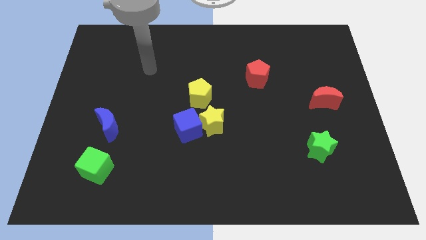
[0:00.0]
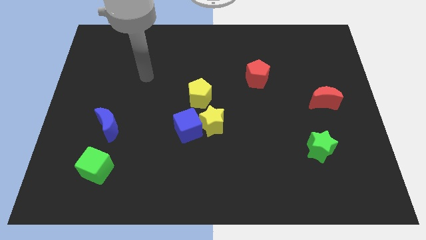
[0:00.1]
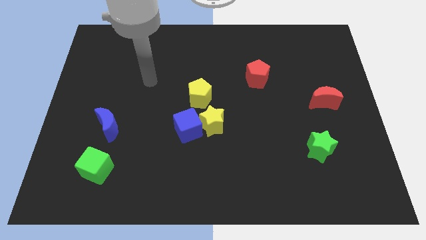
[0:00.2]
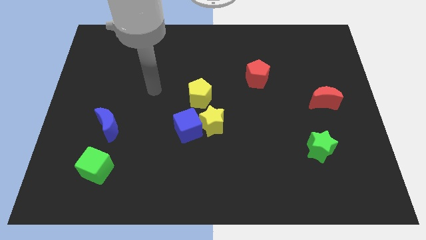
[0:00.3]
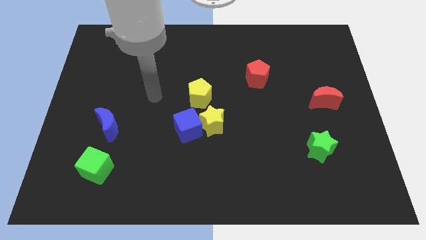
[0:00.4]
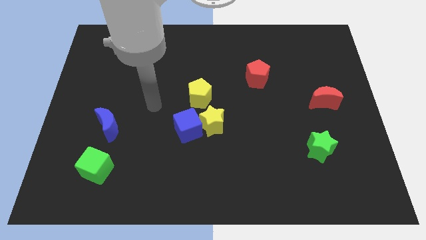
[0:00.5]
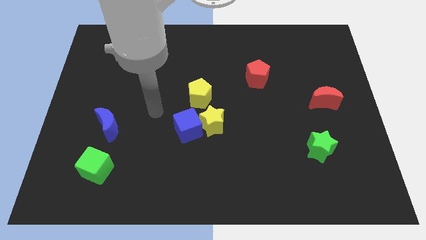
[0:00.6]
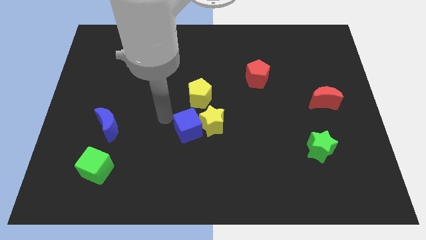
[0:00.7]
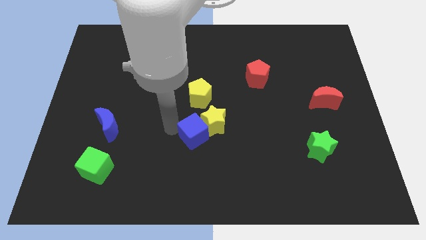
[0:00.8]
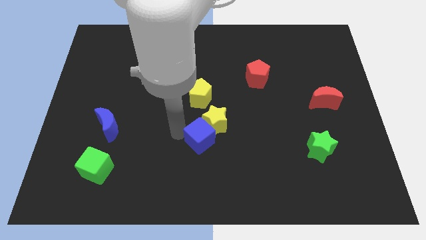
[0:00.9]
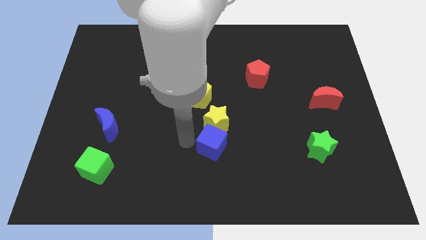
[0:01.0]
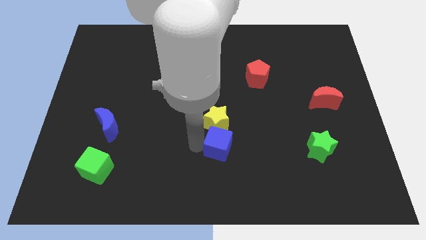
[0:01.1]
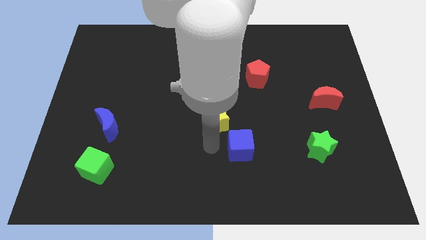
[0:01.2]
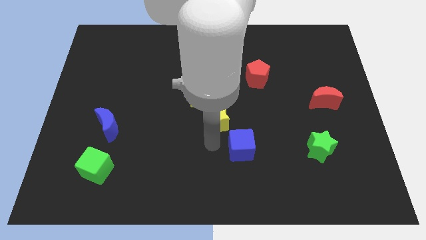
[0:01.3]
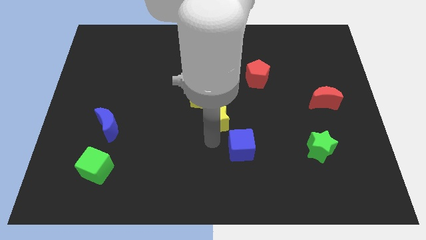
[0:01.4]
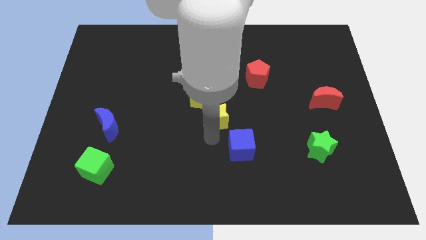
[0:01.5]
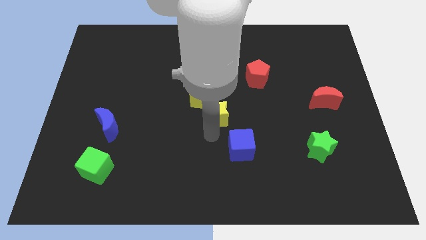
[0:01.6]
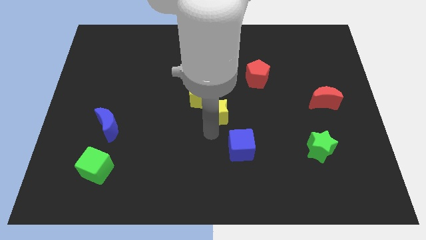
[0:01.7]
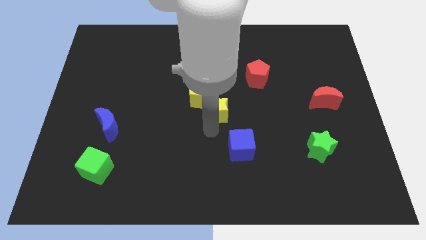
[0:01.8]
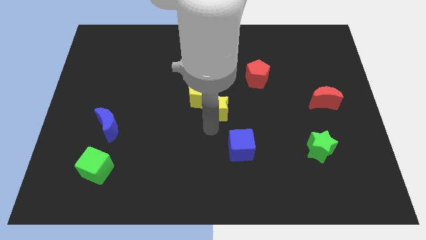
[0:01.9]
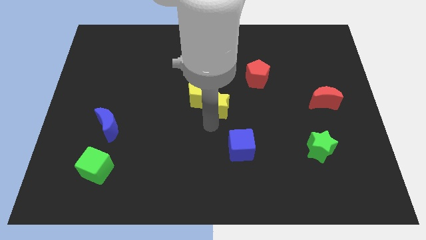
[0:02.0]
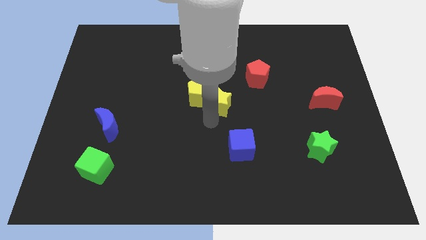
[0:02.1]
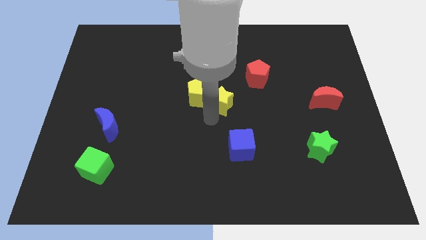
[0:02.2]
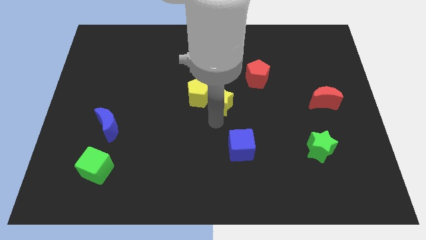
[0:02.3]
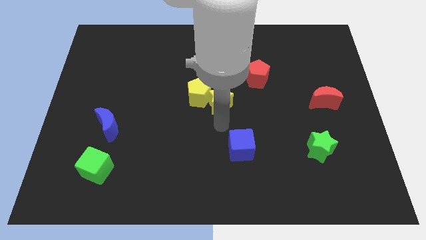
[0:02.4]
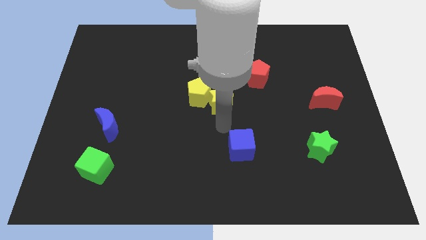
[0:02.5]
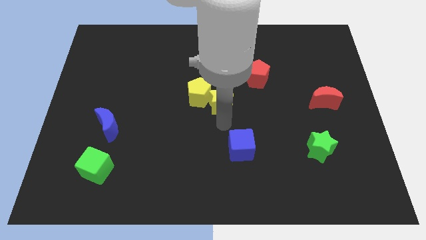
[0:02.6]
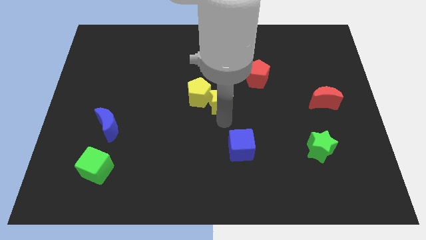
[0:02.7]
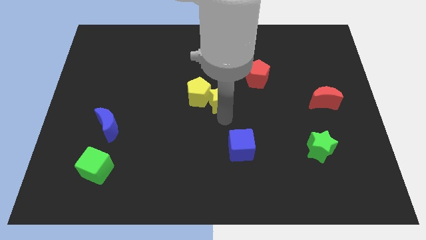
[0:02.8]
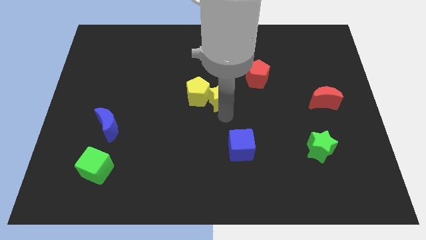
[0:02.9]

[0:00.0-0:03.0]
slightly slide the yellow star up

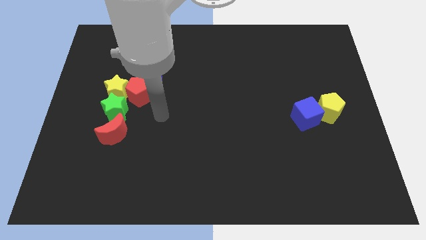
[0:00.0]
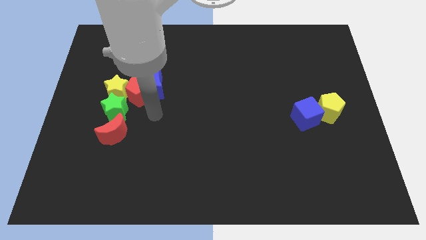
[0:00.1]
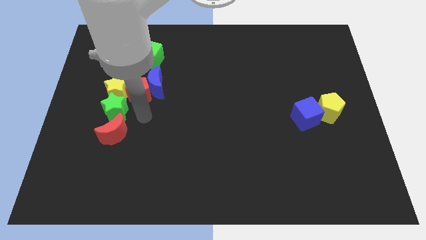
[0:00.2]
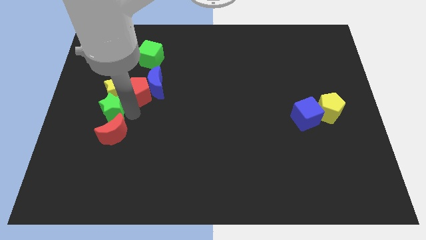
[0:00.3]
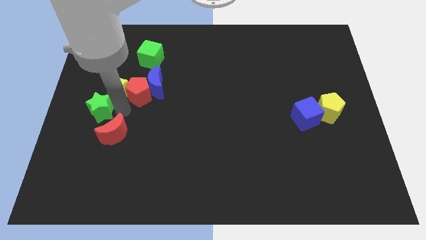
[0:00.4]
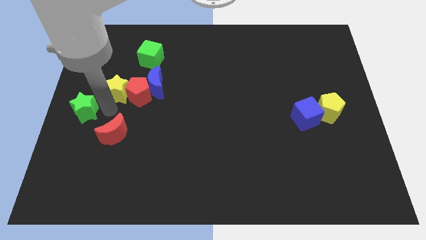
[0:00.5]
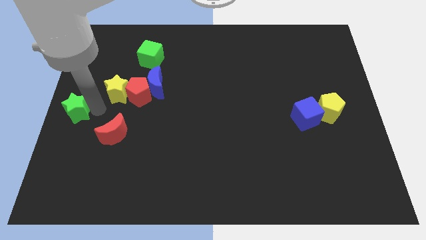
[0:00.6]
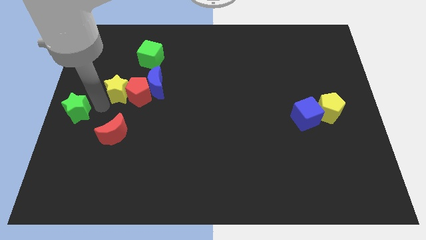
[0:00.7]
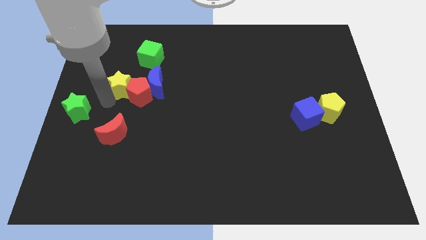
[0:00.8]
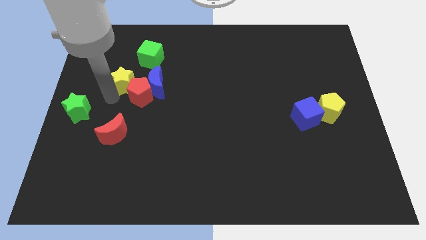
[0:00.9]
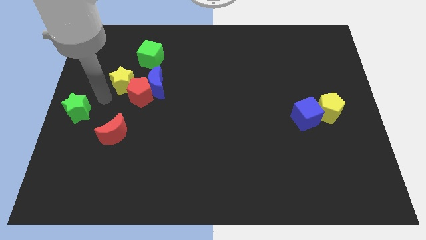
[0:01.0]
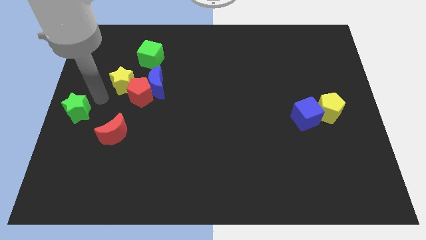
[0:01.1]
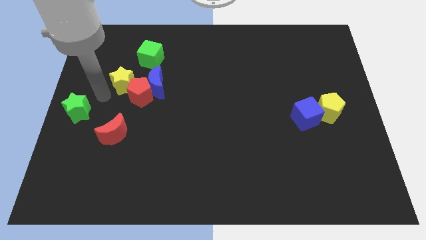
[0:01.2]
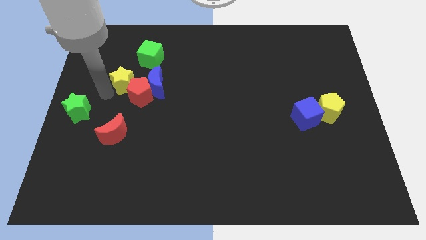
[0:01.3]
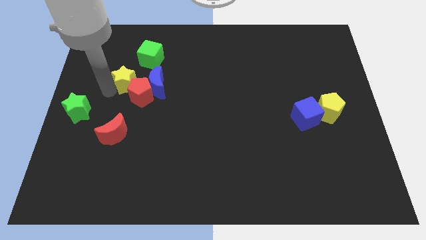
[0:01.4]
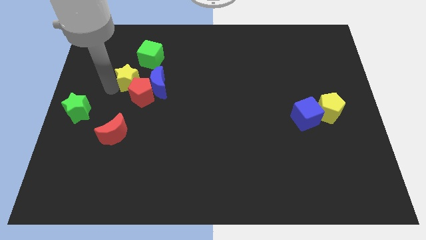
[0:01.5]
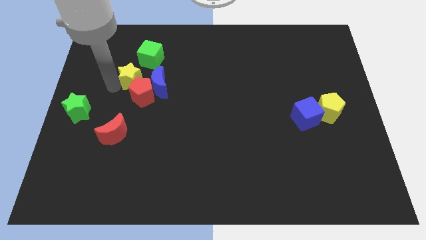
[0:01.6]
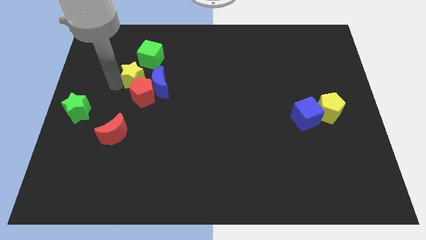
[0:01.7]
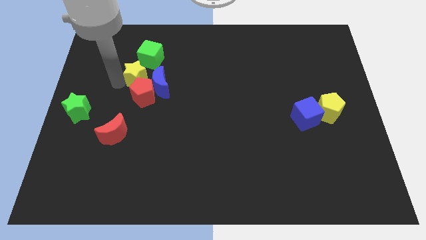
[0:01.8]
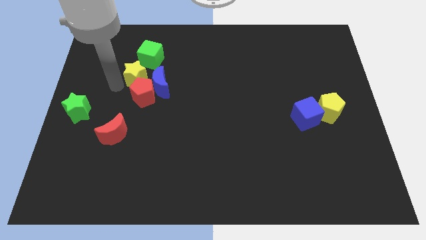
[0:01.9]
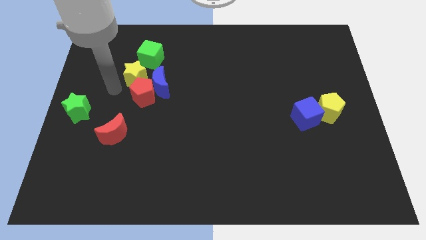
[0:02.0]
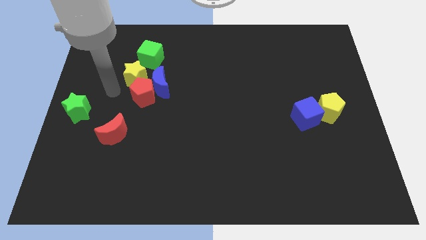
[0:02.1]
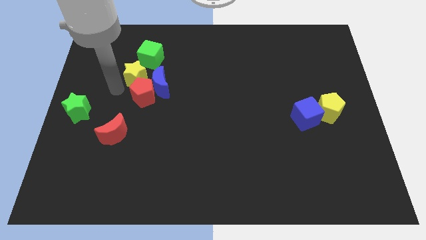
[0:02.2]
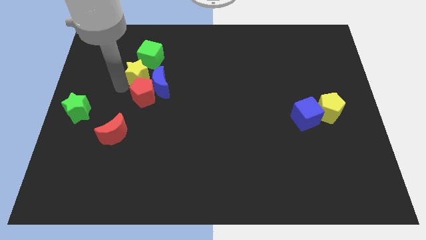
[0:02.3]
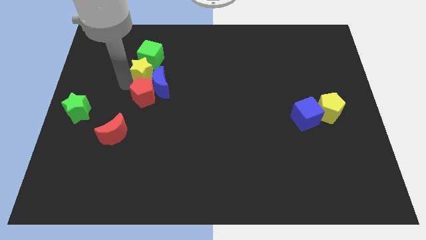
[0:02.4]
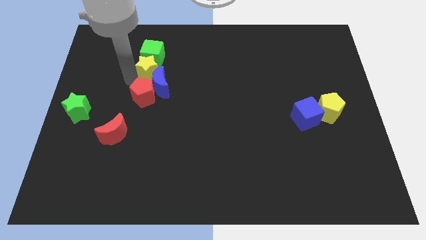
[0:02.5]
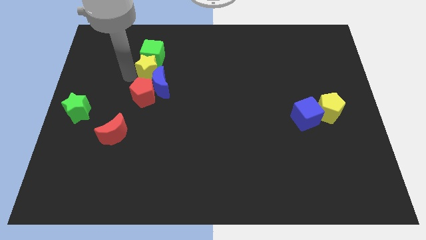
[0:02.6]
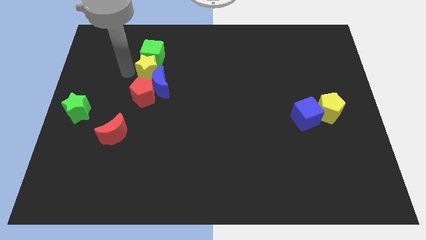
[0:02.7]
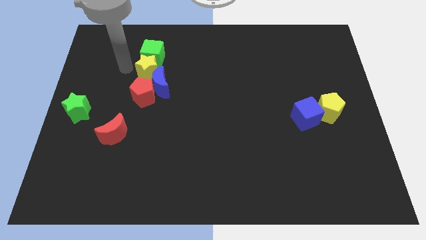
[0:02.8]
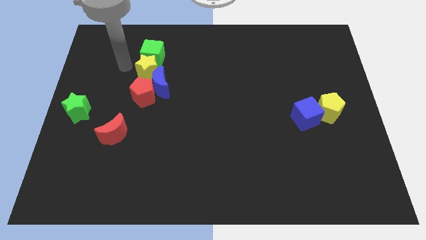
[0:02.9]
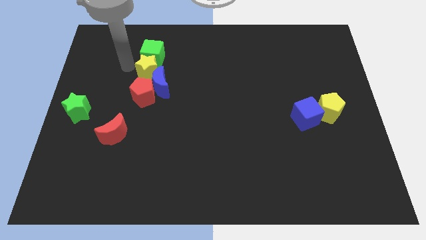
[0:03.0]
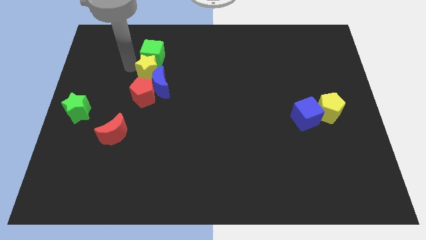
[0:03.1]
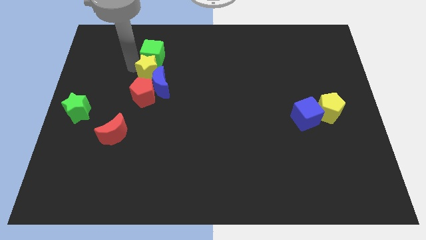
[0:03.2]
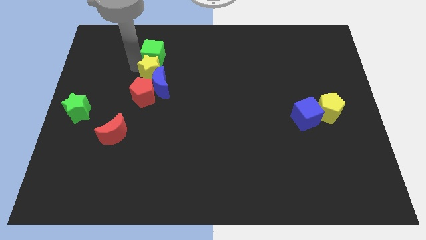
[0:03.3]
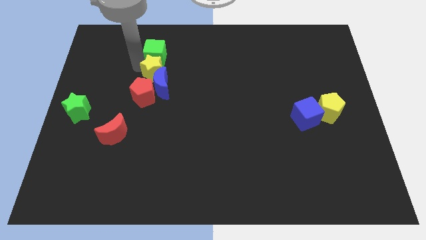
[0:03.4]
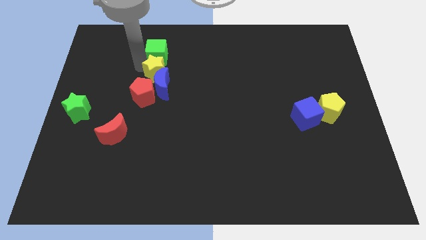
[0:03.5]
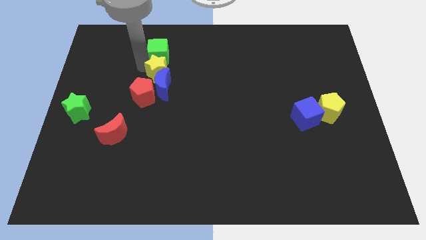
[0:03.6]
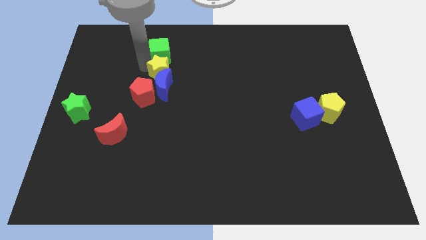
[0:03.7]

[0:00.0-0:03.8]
slide the yellow star right somewhat

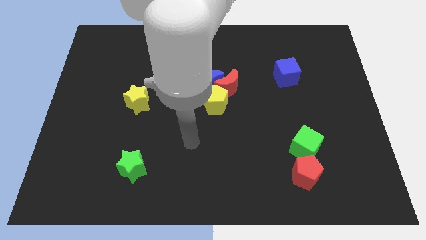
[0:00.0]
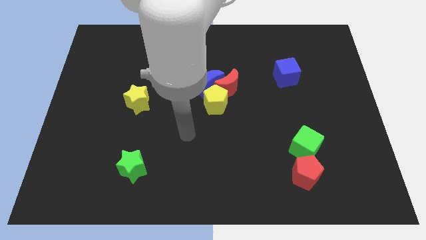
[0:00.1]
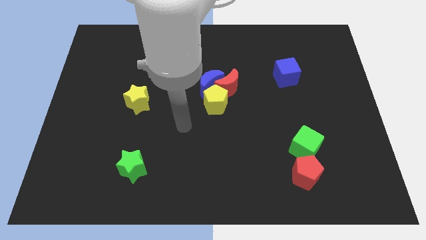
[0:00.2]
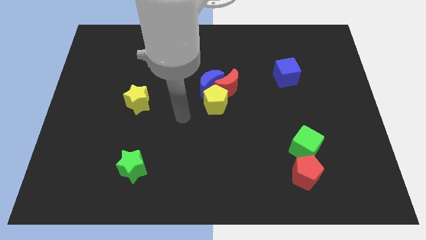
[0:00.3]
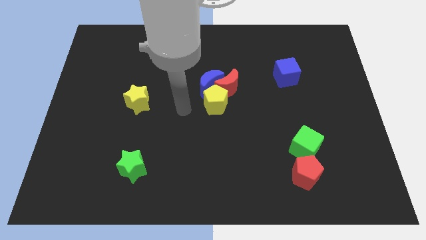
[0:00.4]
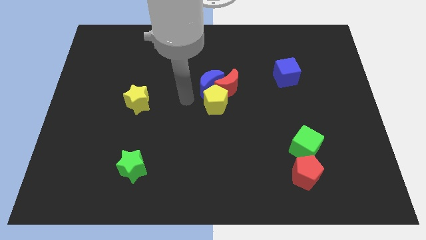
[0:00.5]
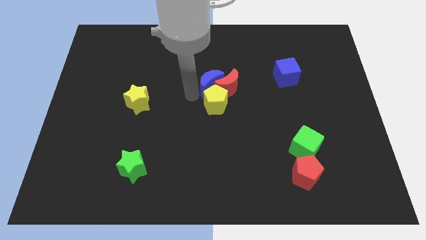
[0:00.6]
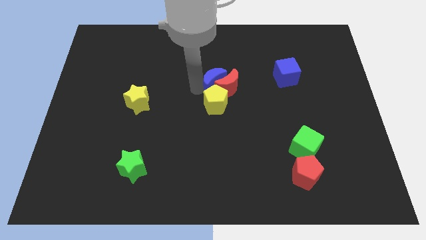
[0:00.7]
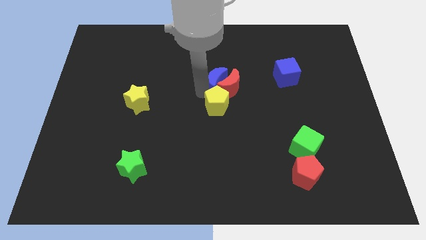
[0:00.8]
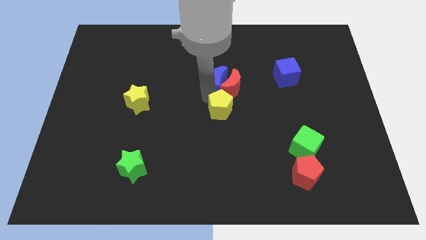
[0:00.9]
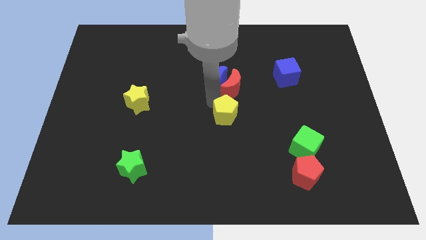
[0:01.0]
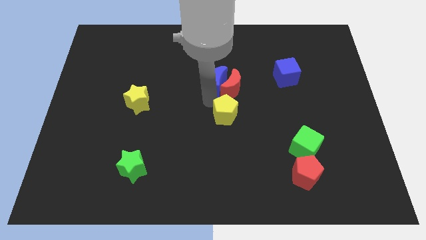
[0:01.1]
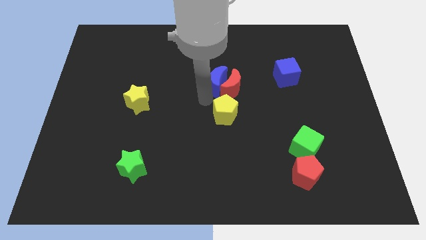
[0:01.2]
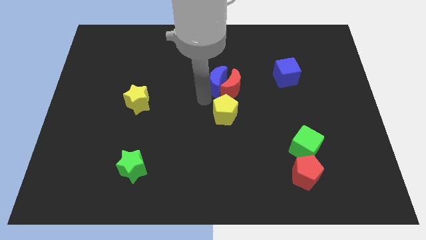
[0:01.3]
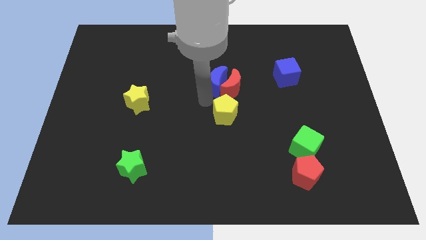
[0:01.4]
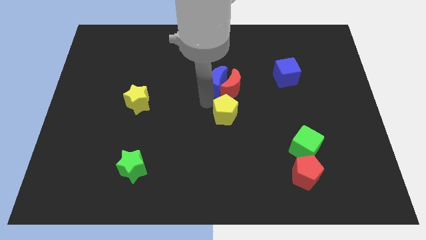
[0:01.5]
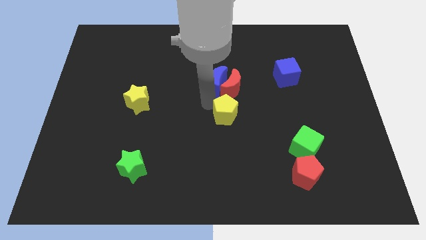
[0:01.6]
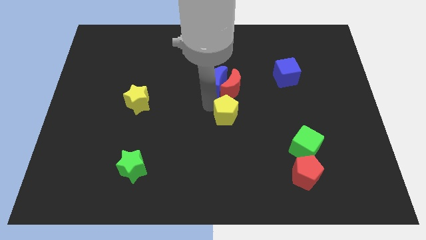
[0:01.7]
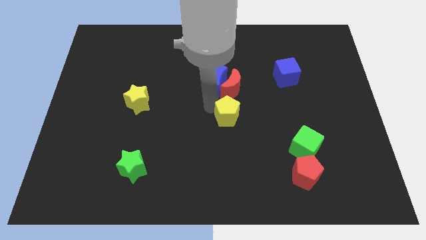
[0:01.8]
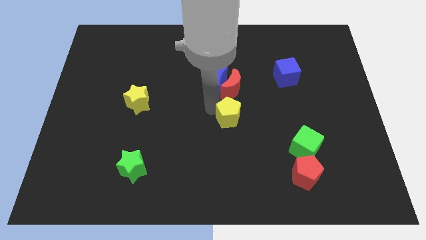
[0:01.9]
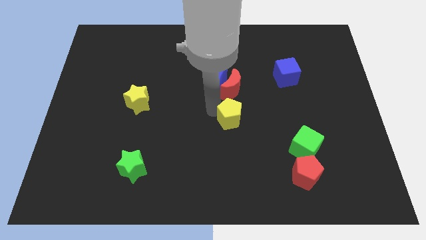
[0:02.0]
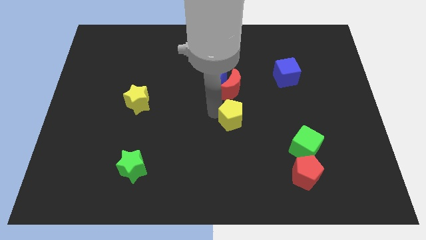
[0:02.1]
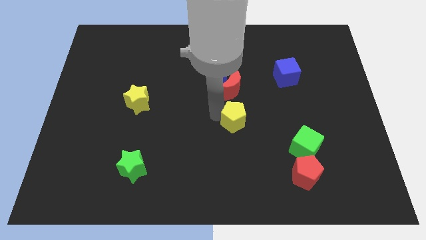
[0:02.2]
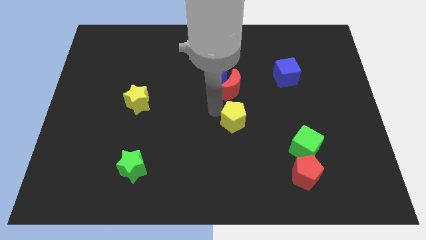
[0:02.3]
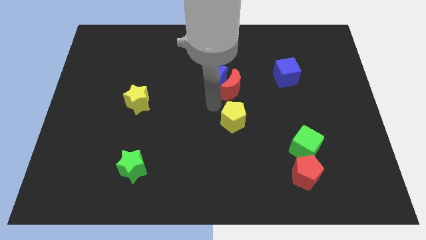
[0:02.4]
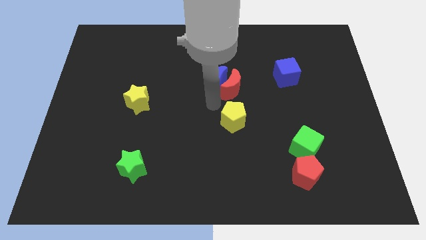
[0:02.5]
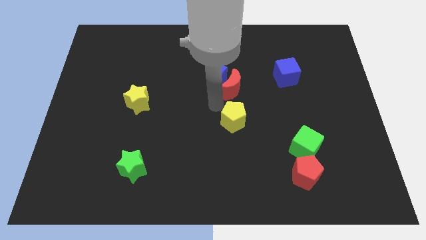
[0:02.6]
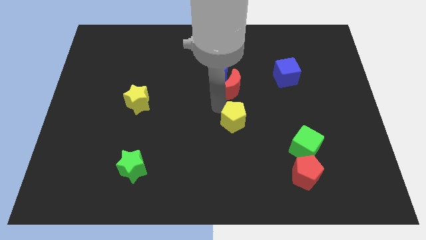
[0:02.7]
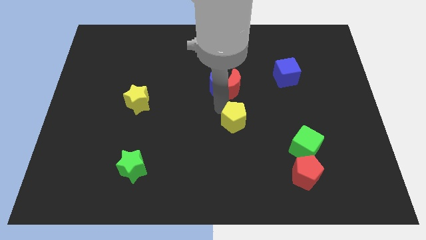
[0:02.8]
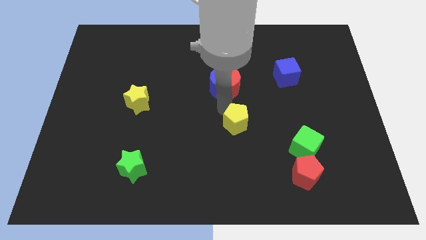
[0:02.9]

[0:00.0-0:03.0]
slightly slide the yellow pentagon down and to the right diagonally
